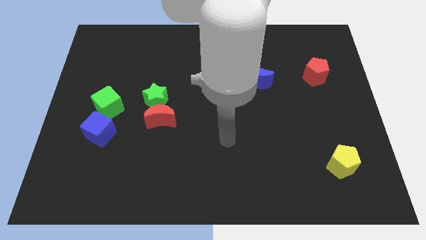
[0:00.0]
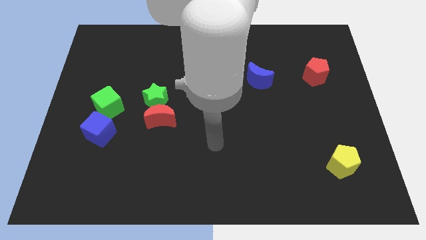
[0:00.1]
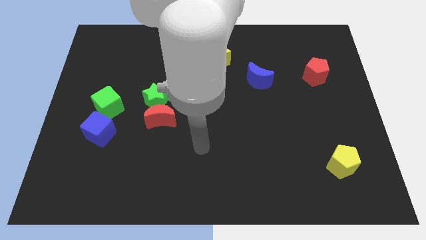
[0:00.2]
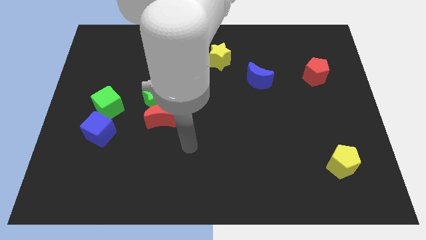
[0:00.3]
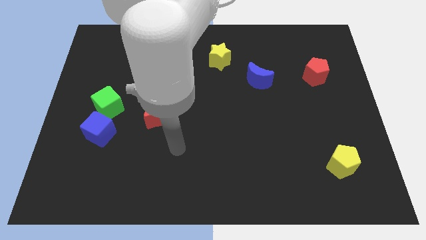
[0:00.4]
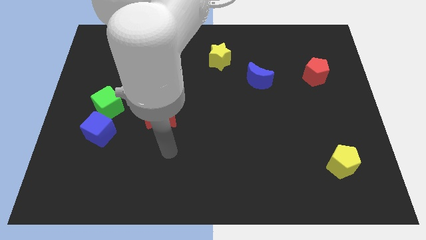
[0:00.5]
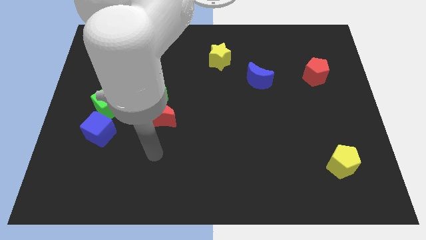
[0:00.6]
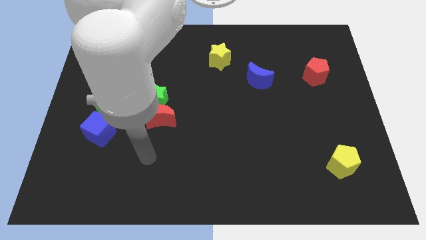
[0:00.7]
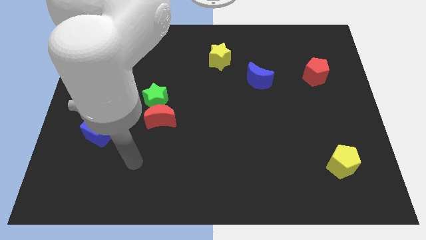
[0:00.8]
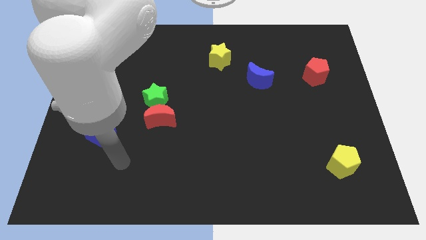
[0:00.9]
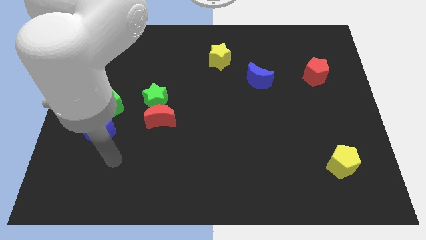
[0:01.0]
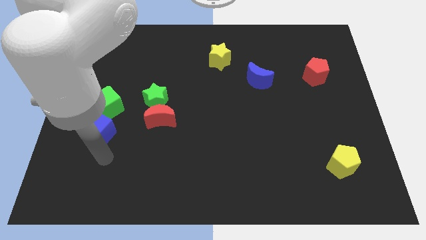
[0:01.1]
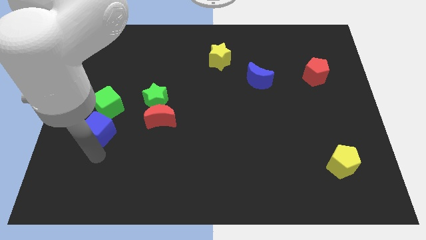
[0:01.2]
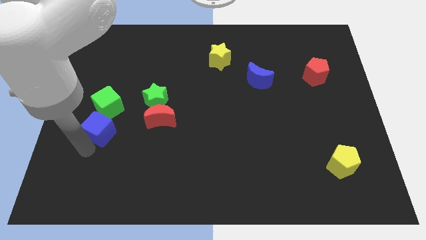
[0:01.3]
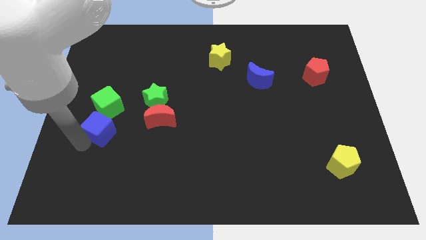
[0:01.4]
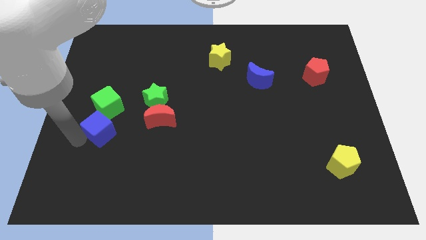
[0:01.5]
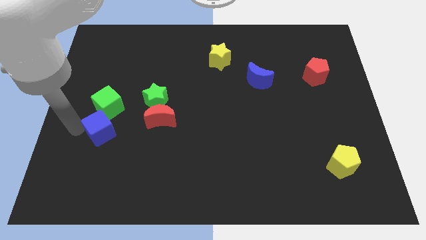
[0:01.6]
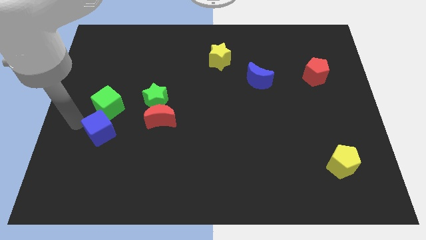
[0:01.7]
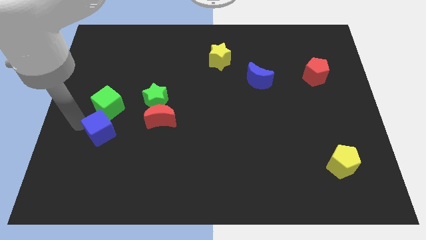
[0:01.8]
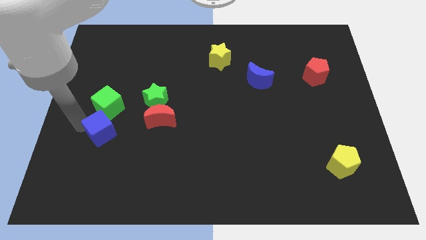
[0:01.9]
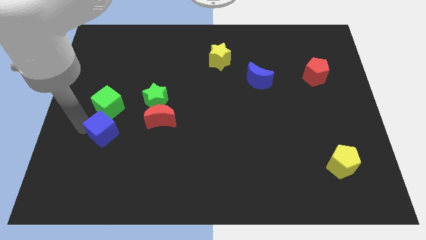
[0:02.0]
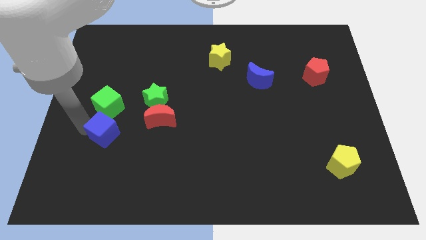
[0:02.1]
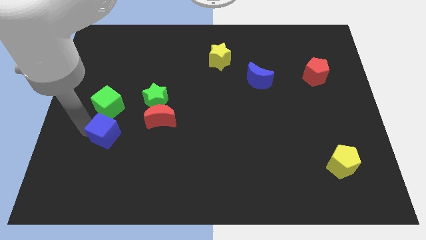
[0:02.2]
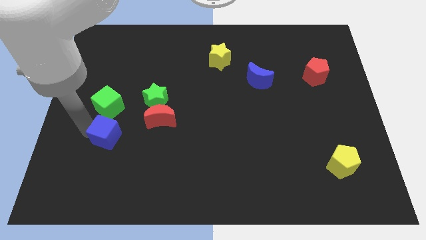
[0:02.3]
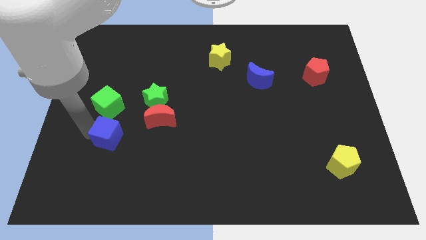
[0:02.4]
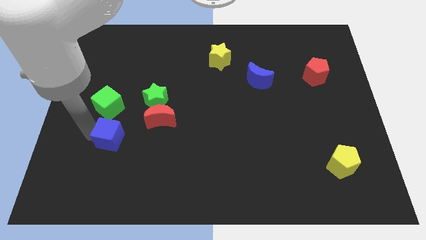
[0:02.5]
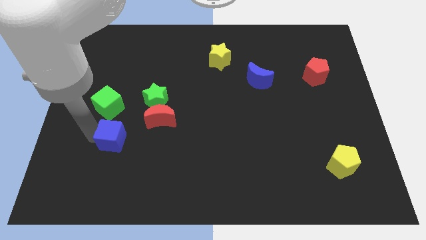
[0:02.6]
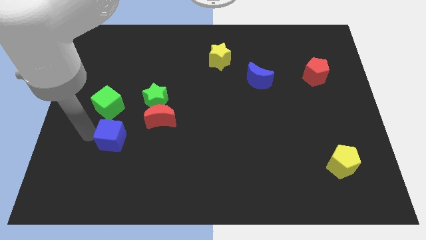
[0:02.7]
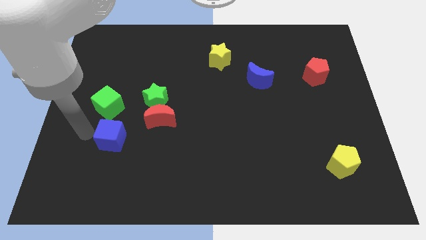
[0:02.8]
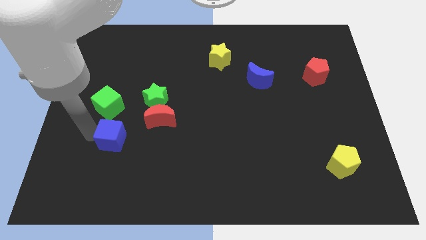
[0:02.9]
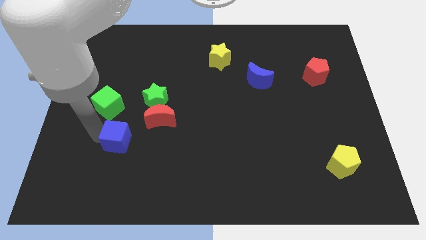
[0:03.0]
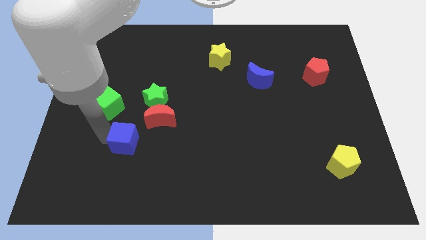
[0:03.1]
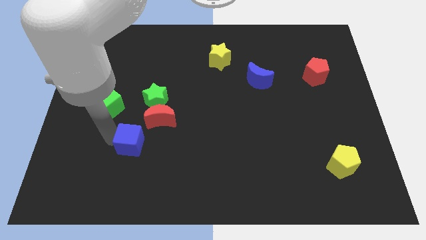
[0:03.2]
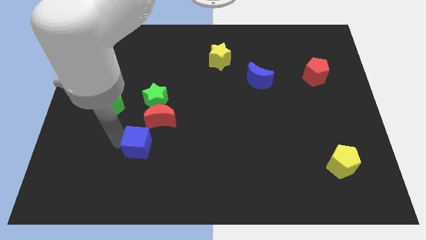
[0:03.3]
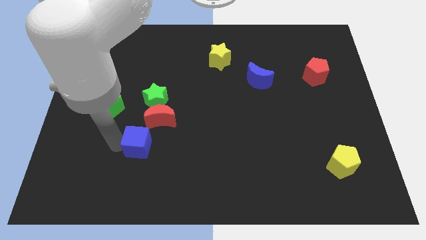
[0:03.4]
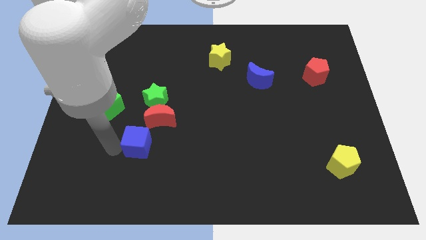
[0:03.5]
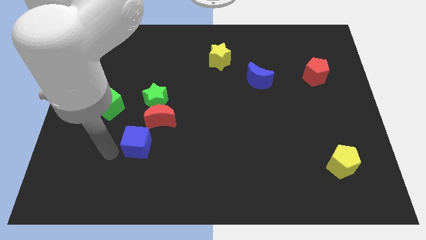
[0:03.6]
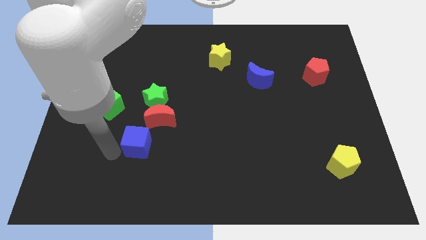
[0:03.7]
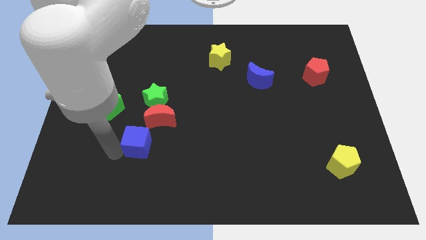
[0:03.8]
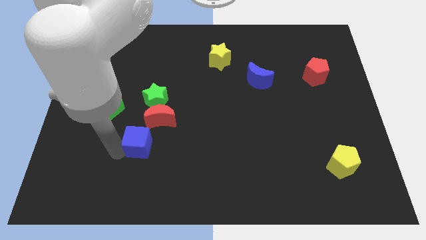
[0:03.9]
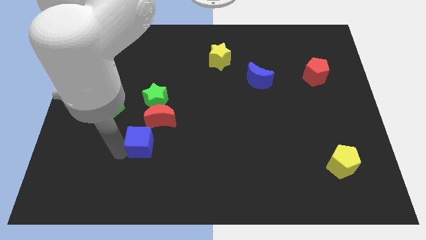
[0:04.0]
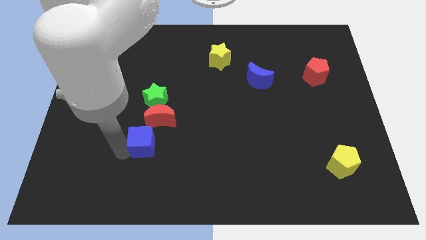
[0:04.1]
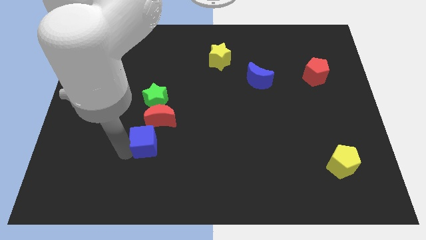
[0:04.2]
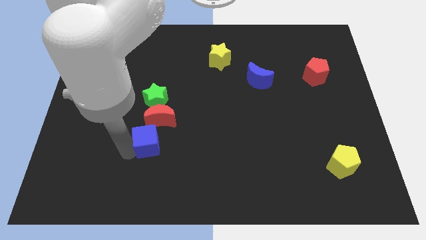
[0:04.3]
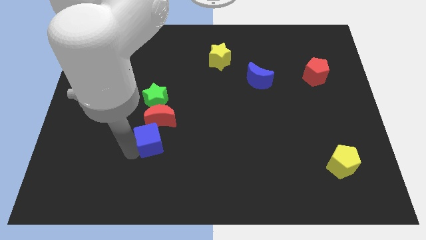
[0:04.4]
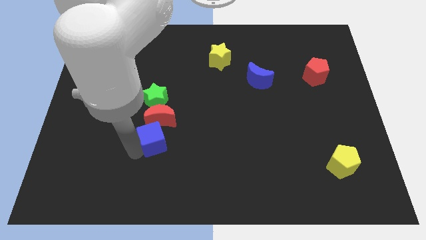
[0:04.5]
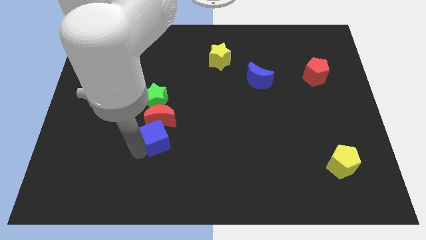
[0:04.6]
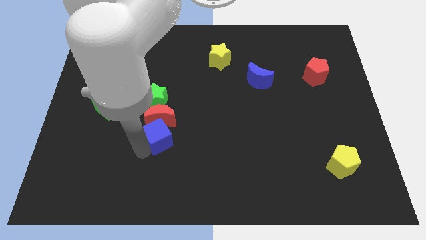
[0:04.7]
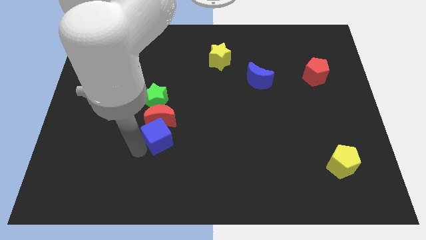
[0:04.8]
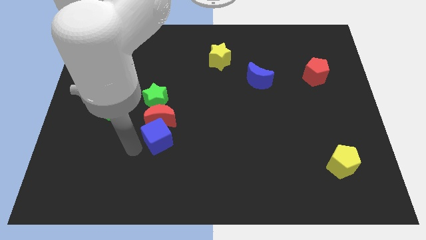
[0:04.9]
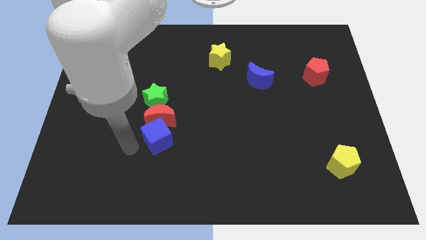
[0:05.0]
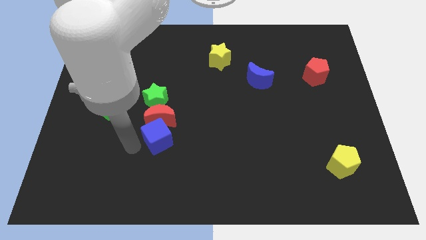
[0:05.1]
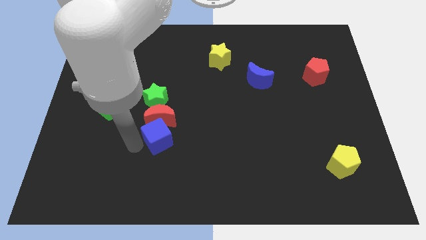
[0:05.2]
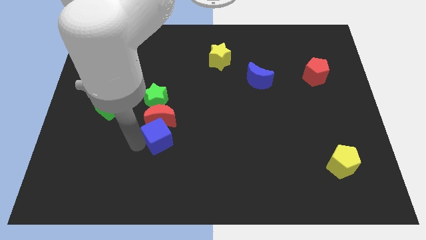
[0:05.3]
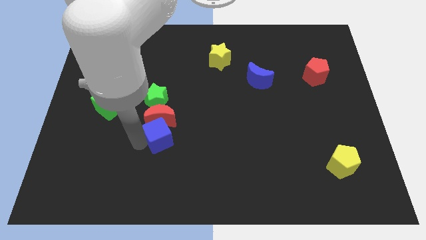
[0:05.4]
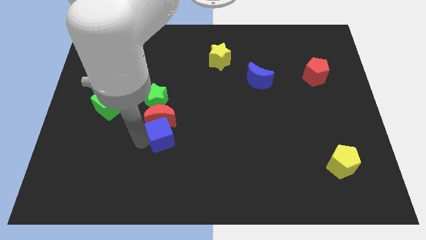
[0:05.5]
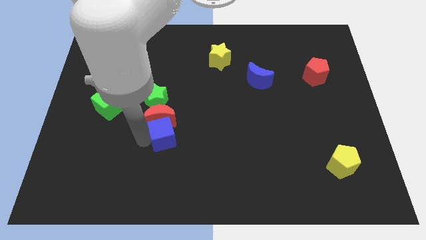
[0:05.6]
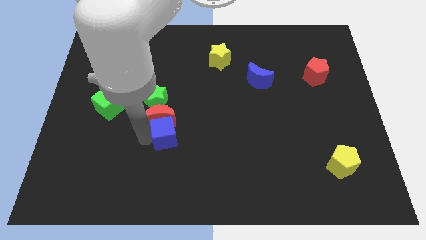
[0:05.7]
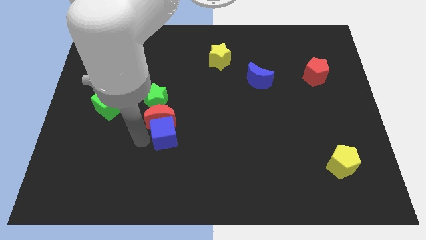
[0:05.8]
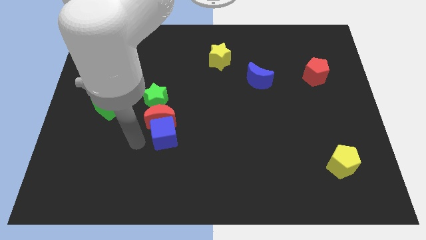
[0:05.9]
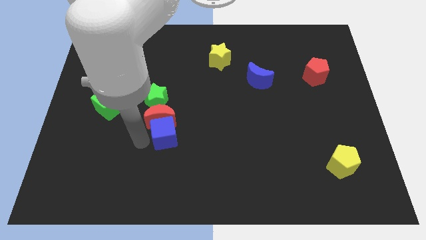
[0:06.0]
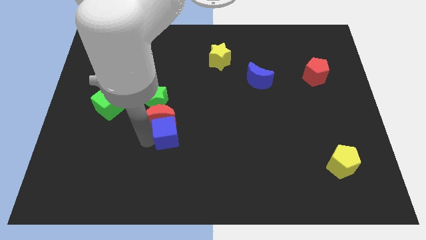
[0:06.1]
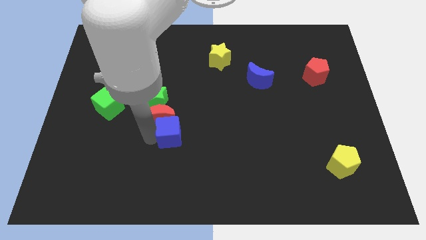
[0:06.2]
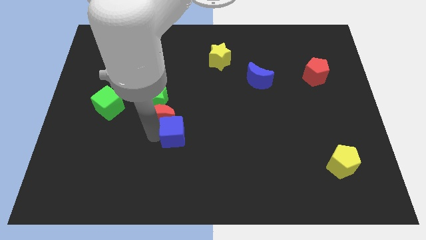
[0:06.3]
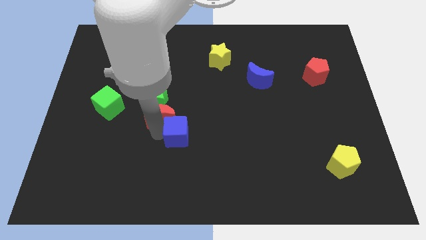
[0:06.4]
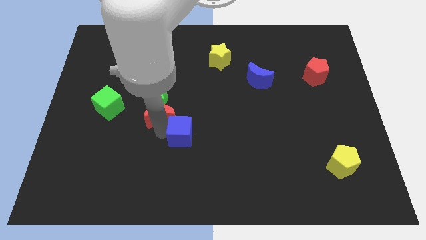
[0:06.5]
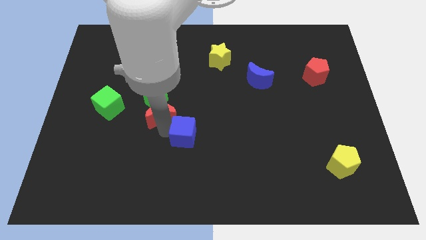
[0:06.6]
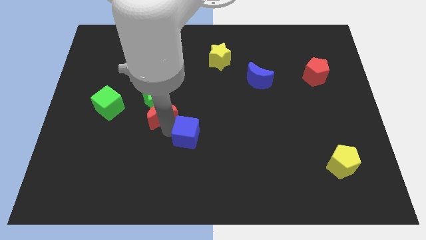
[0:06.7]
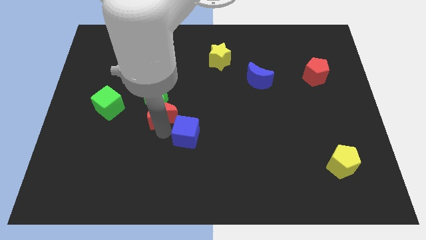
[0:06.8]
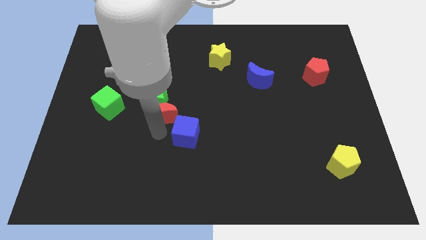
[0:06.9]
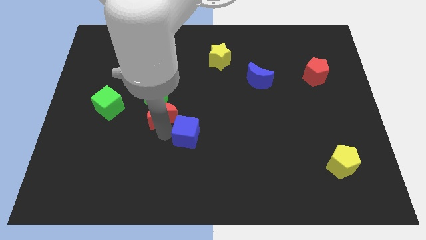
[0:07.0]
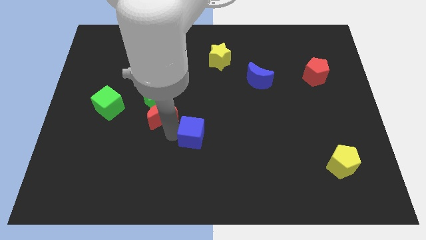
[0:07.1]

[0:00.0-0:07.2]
push the blue cube right

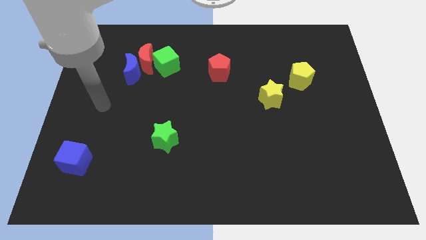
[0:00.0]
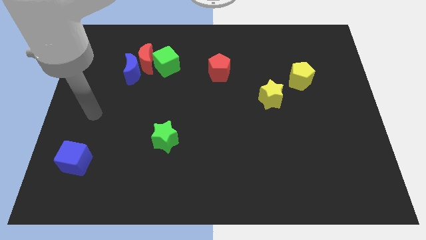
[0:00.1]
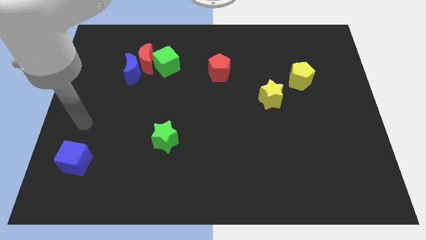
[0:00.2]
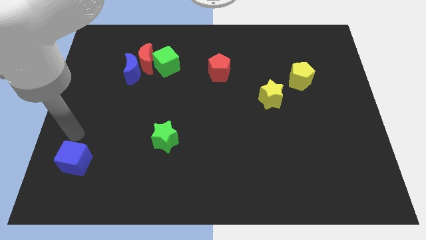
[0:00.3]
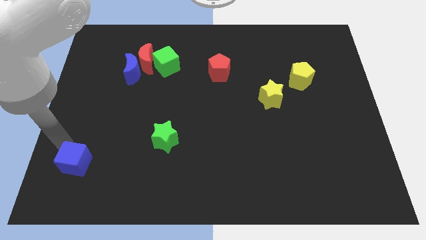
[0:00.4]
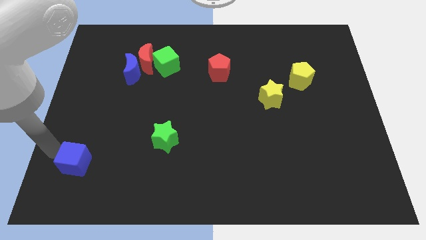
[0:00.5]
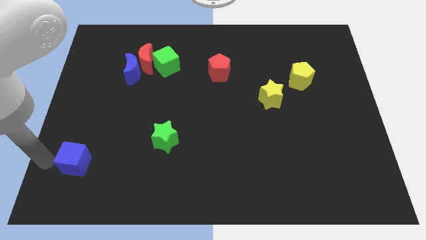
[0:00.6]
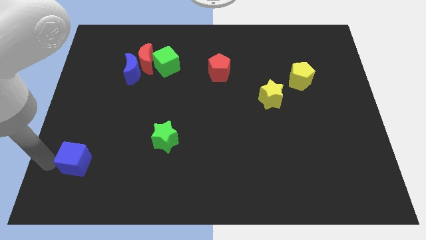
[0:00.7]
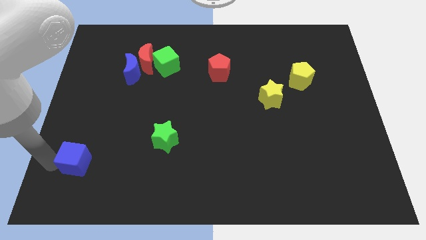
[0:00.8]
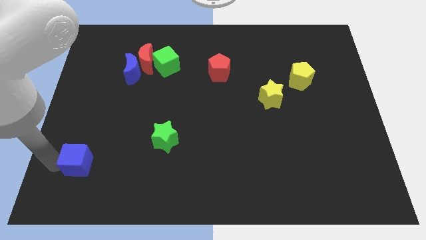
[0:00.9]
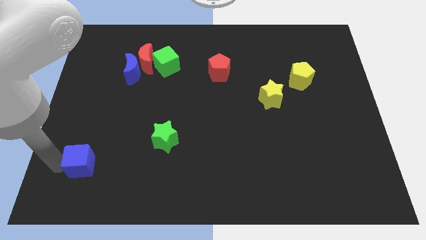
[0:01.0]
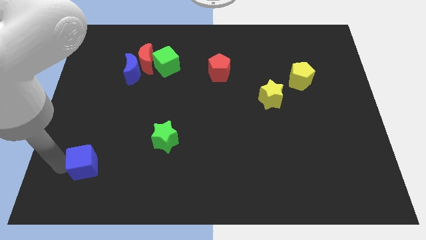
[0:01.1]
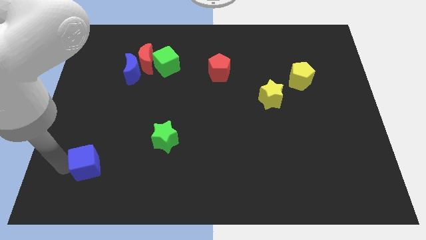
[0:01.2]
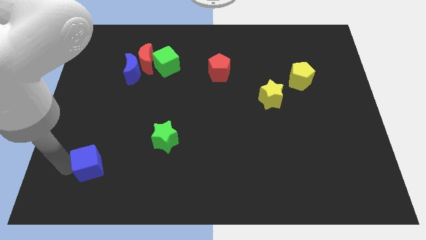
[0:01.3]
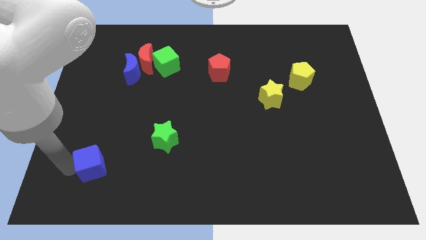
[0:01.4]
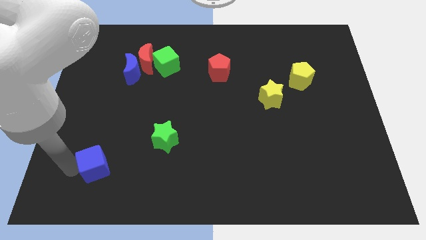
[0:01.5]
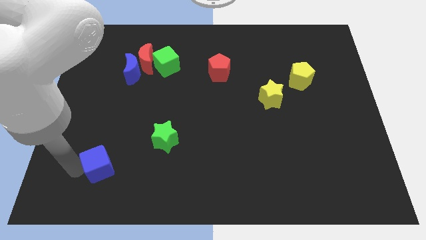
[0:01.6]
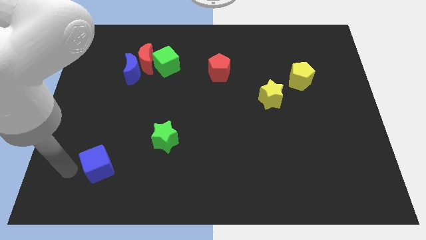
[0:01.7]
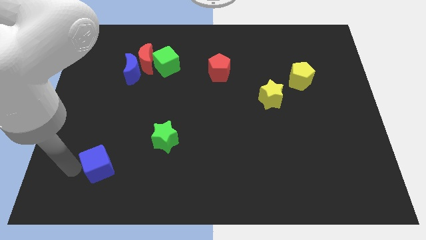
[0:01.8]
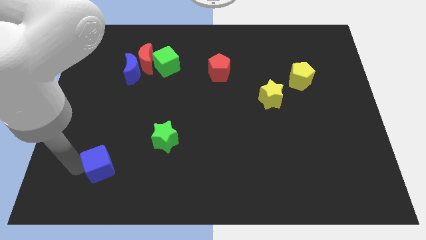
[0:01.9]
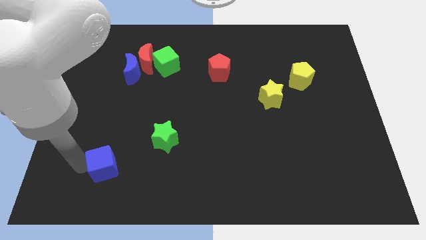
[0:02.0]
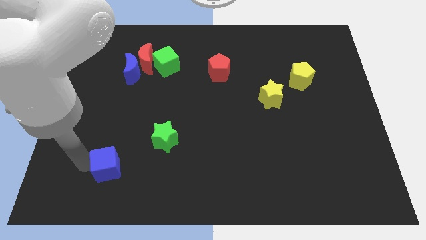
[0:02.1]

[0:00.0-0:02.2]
slightly push the blue cube to the right
